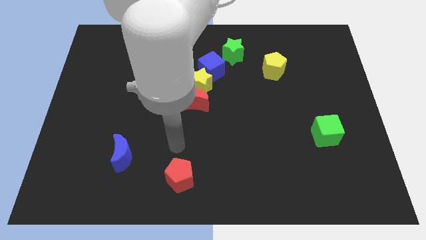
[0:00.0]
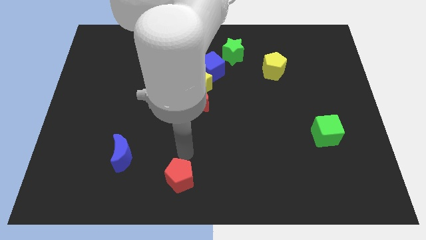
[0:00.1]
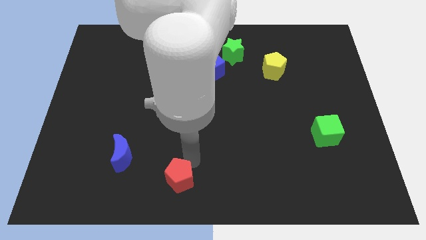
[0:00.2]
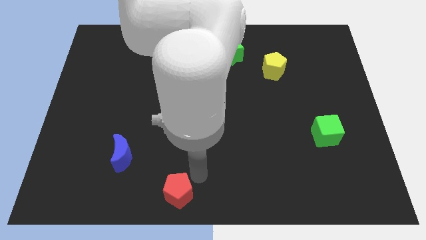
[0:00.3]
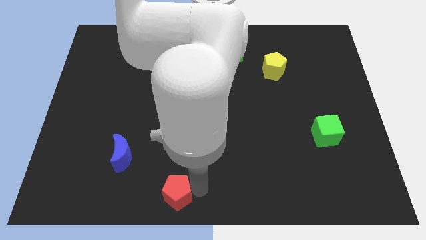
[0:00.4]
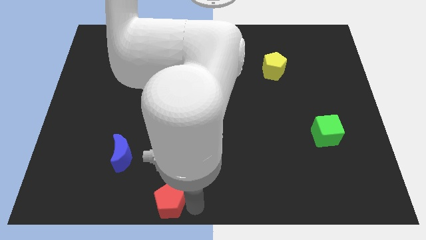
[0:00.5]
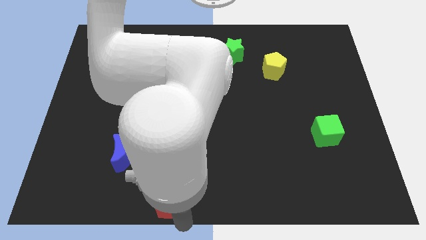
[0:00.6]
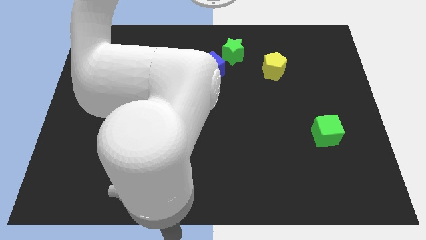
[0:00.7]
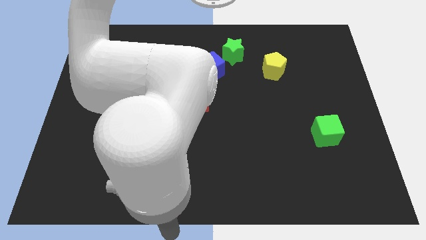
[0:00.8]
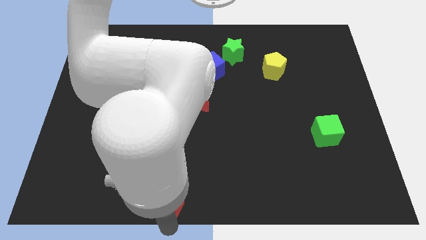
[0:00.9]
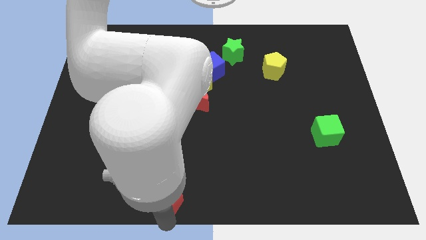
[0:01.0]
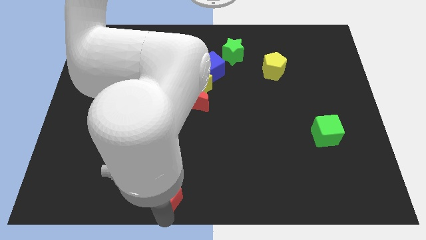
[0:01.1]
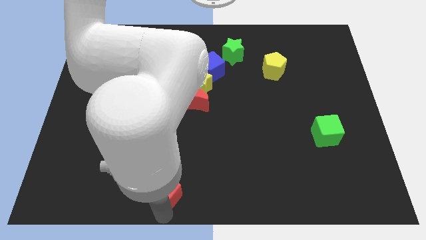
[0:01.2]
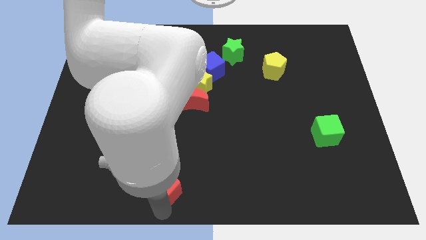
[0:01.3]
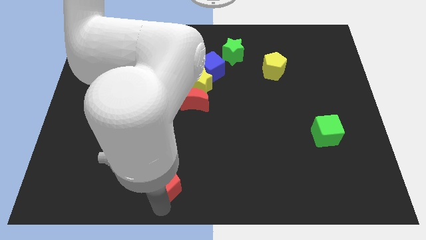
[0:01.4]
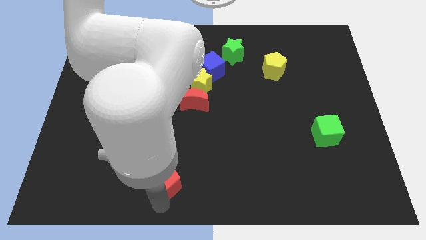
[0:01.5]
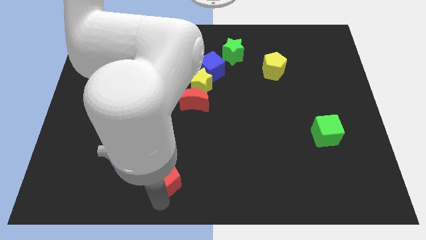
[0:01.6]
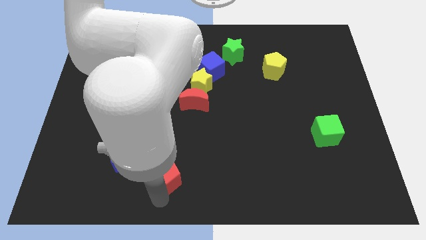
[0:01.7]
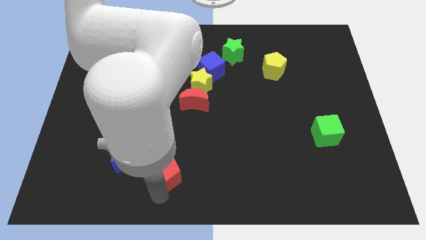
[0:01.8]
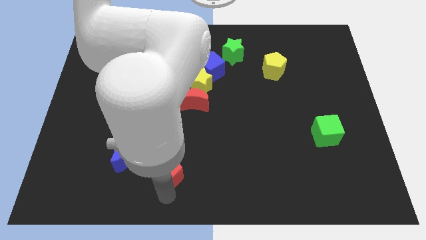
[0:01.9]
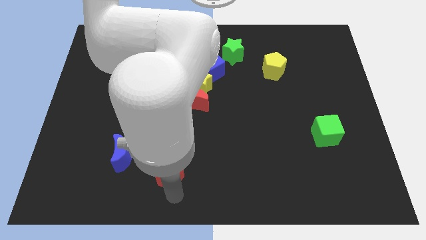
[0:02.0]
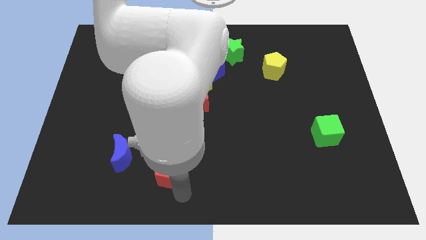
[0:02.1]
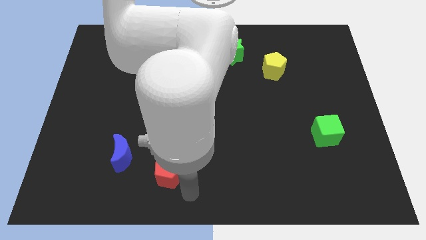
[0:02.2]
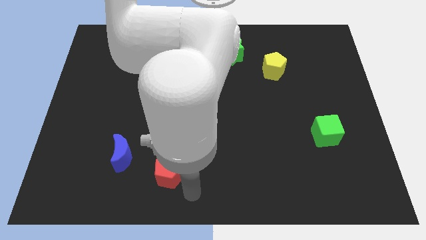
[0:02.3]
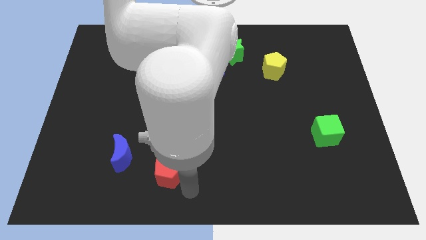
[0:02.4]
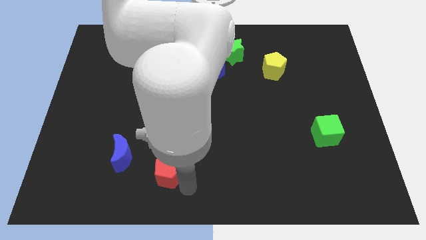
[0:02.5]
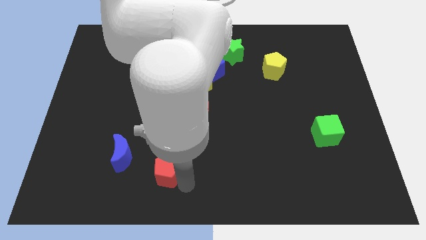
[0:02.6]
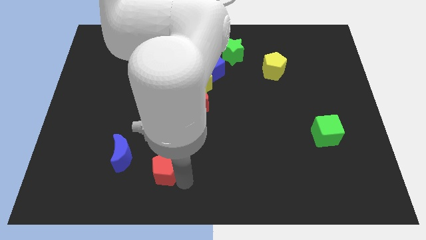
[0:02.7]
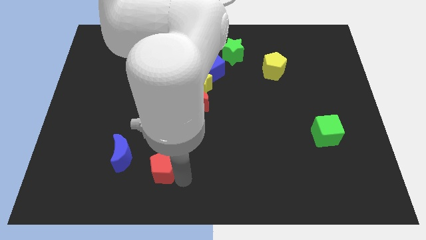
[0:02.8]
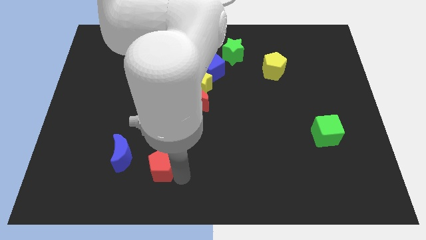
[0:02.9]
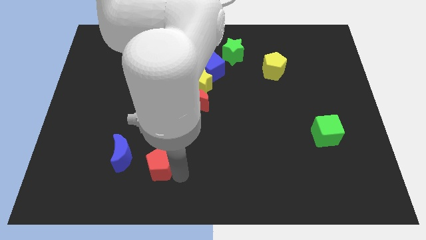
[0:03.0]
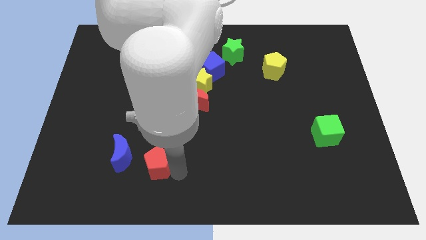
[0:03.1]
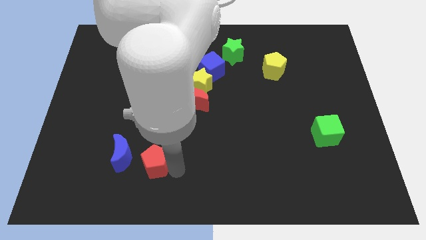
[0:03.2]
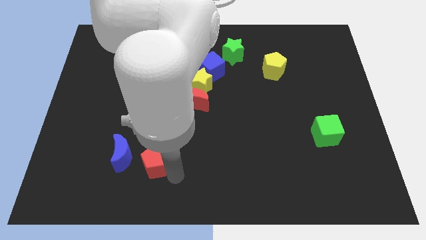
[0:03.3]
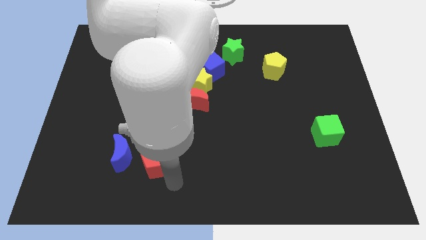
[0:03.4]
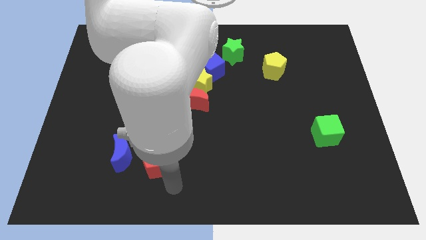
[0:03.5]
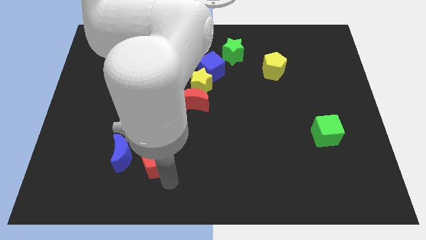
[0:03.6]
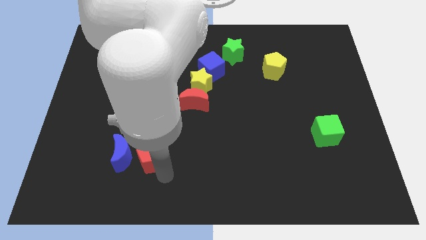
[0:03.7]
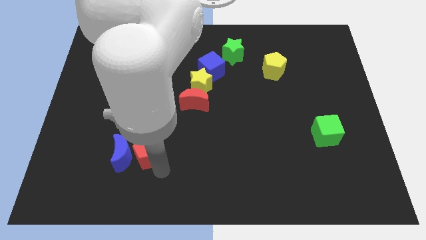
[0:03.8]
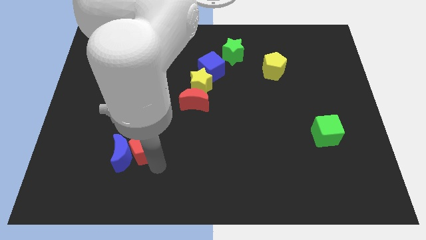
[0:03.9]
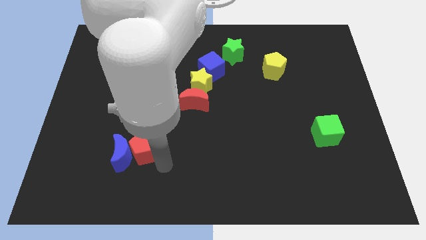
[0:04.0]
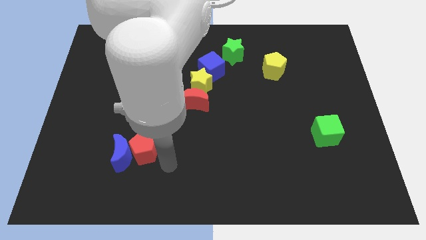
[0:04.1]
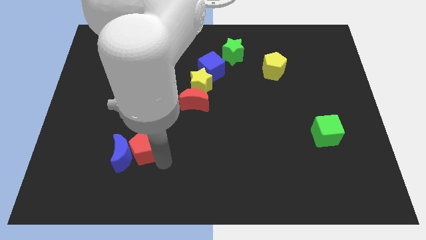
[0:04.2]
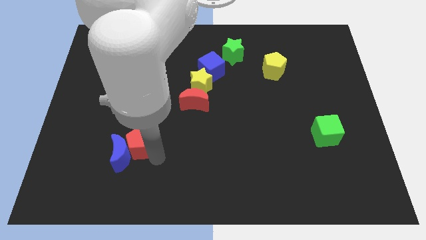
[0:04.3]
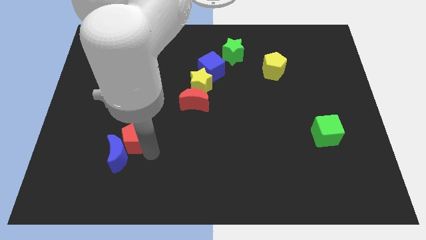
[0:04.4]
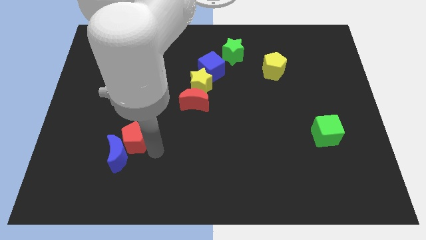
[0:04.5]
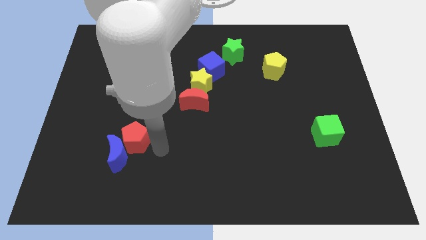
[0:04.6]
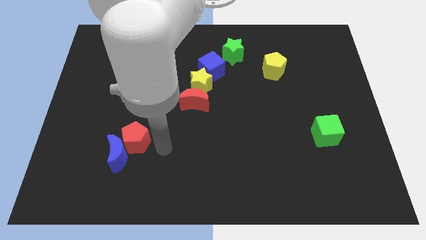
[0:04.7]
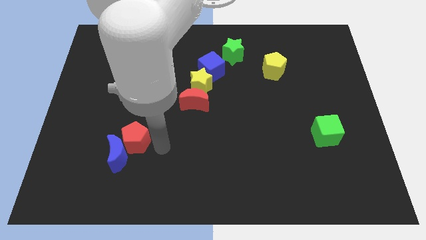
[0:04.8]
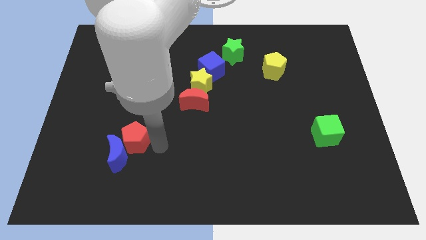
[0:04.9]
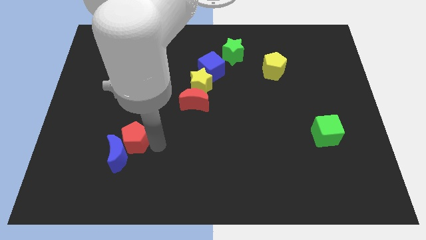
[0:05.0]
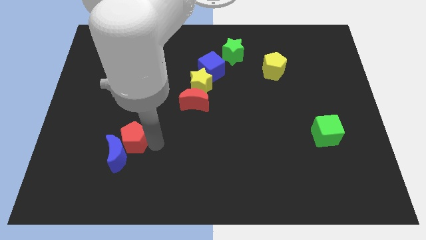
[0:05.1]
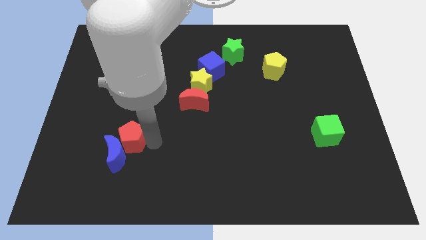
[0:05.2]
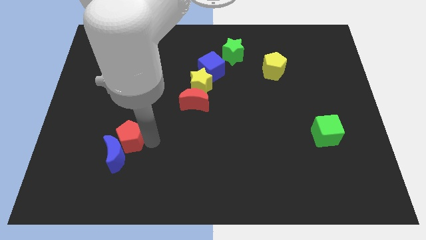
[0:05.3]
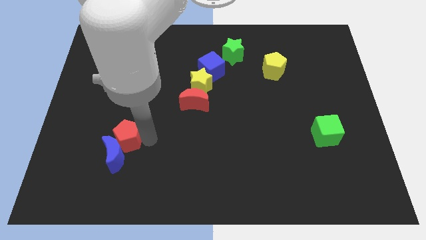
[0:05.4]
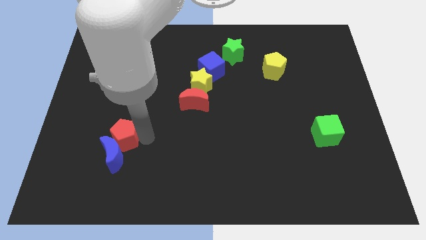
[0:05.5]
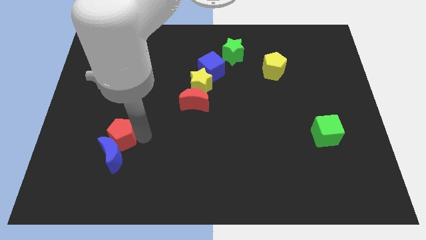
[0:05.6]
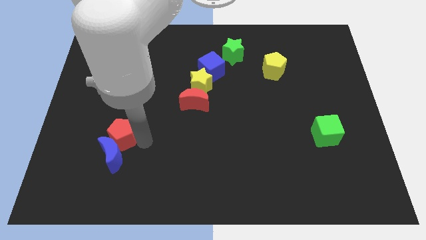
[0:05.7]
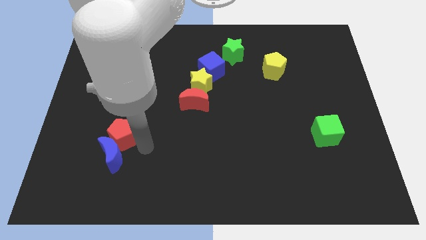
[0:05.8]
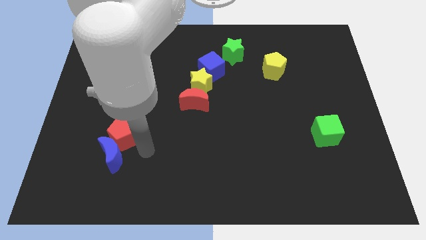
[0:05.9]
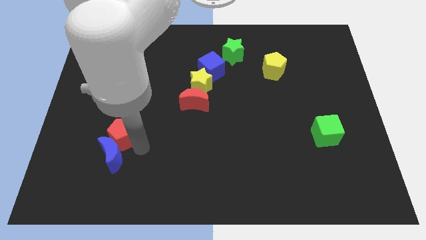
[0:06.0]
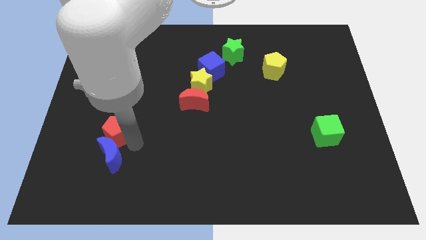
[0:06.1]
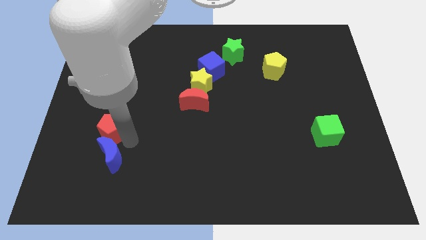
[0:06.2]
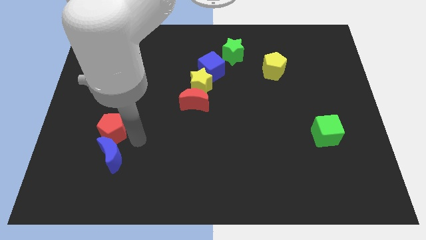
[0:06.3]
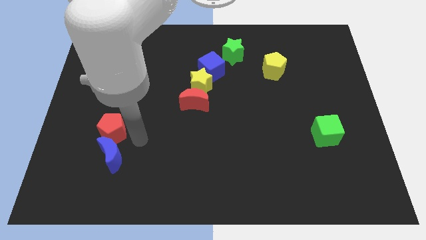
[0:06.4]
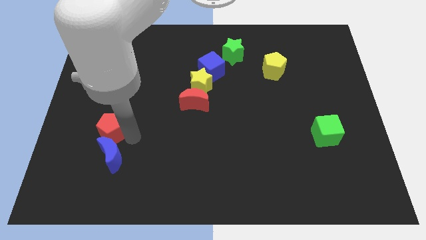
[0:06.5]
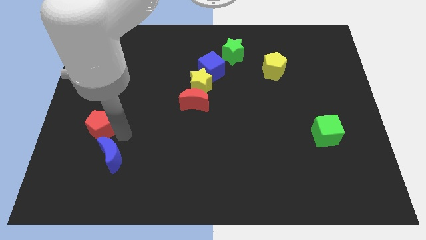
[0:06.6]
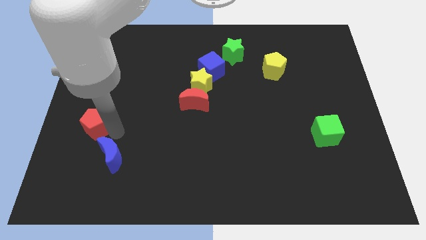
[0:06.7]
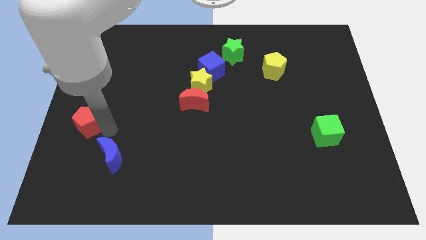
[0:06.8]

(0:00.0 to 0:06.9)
push the red pentagon to the left side of the board

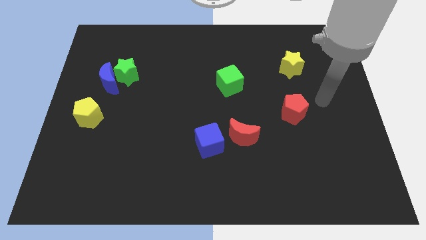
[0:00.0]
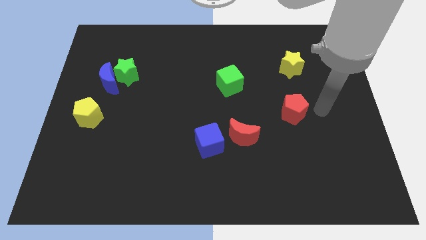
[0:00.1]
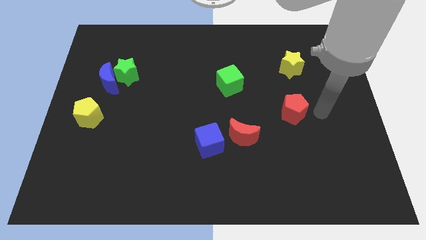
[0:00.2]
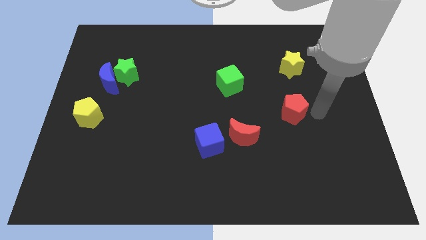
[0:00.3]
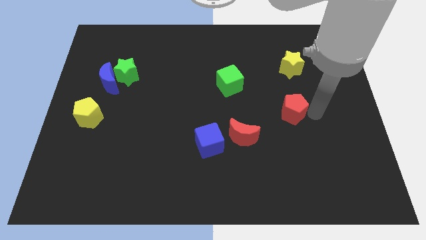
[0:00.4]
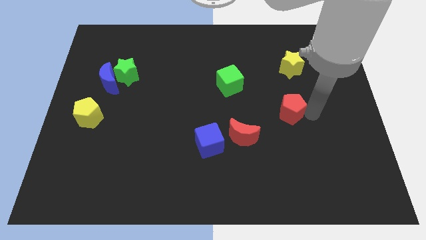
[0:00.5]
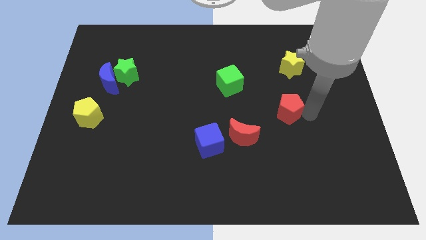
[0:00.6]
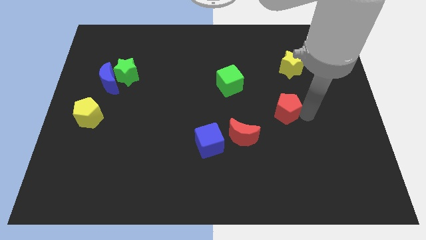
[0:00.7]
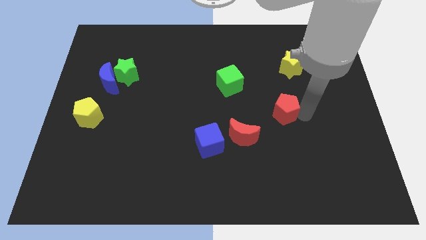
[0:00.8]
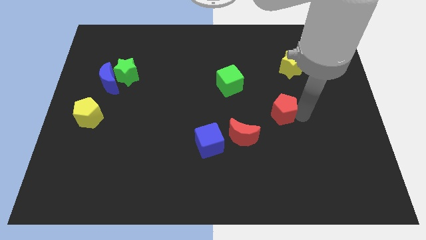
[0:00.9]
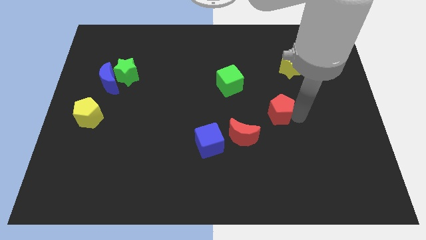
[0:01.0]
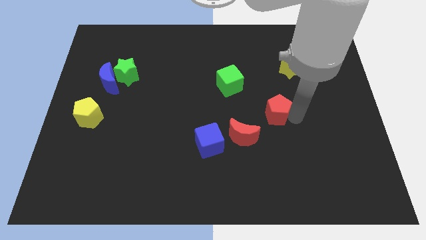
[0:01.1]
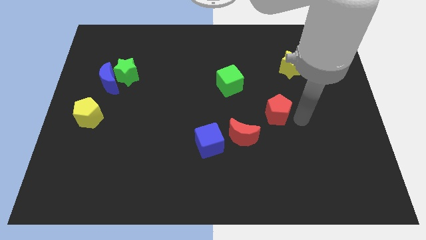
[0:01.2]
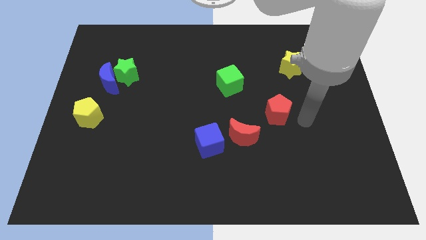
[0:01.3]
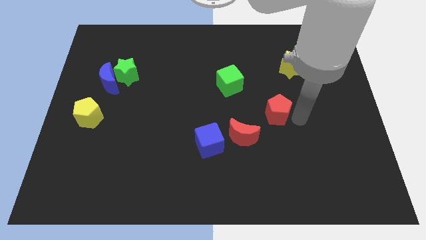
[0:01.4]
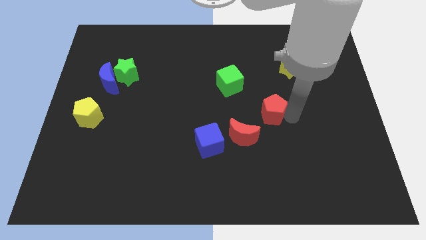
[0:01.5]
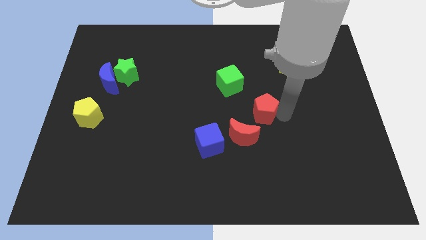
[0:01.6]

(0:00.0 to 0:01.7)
push the red pentagon to the middle
